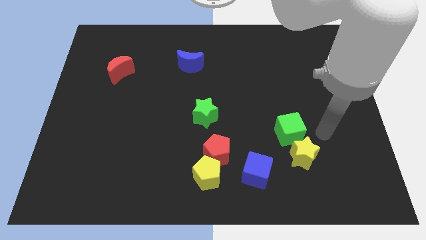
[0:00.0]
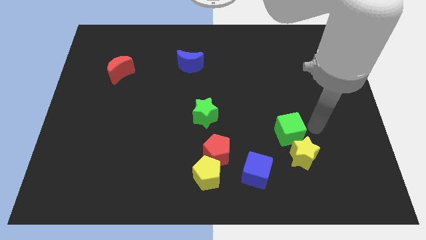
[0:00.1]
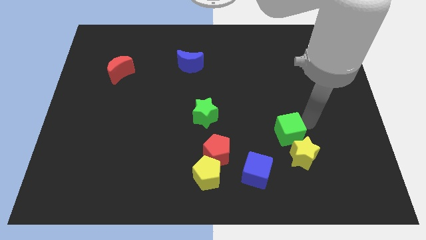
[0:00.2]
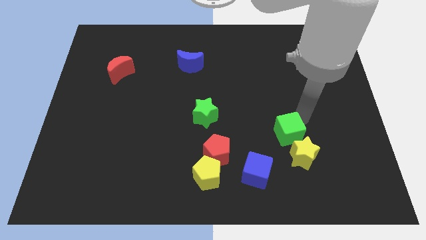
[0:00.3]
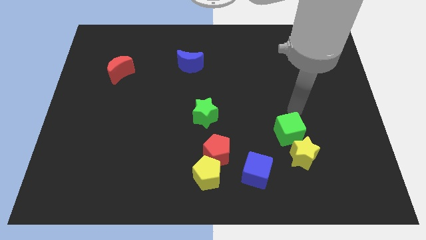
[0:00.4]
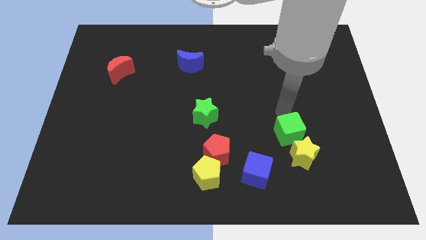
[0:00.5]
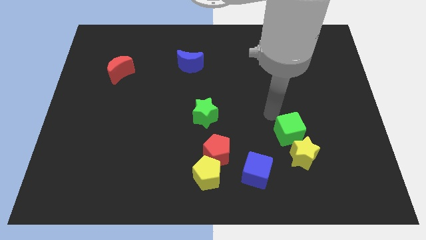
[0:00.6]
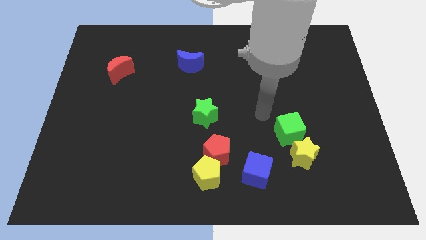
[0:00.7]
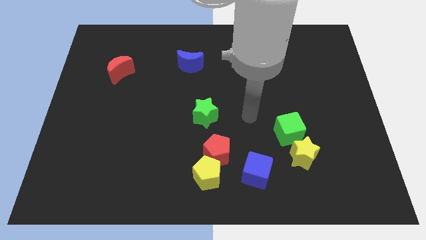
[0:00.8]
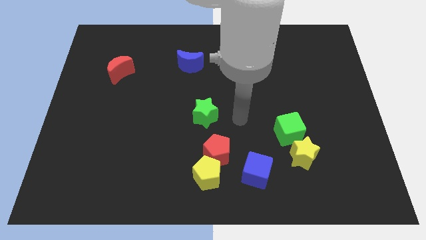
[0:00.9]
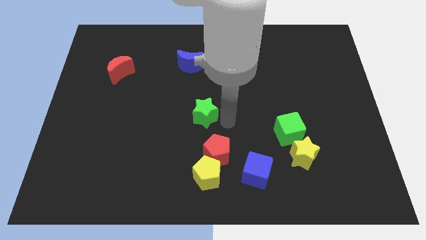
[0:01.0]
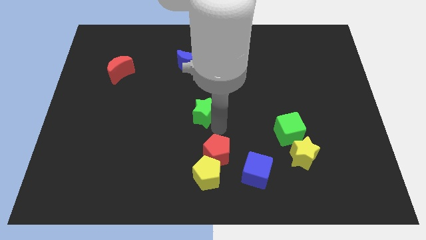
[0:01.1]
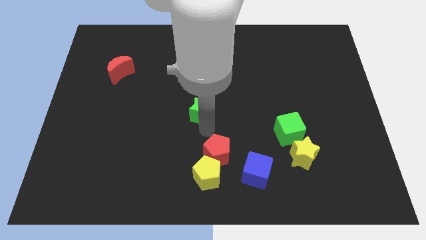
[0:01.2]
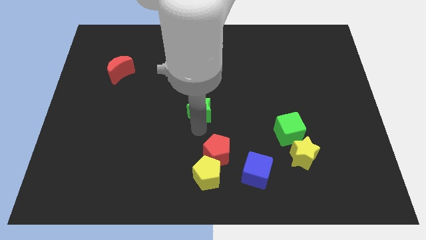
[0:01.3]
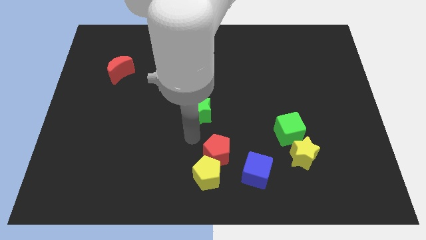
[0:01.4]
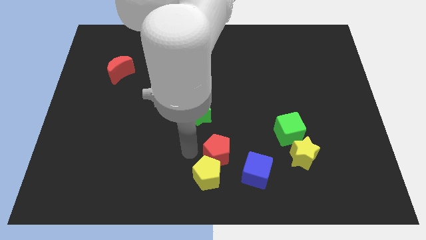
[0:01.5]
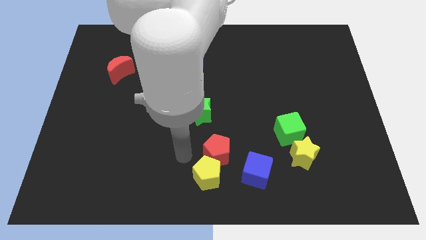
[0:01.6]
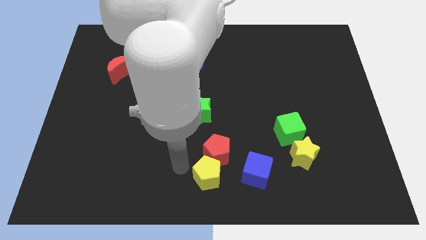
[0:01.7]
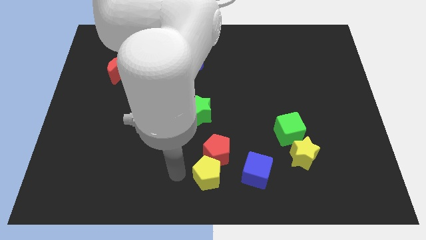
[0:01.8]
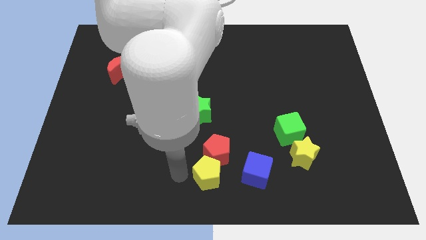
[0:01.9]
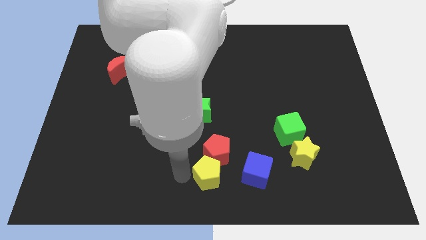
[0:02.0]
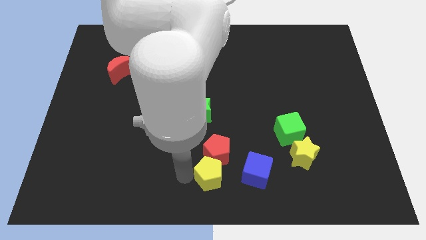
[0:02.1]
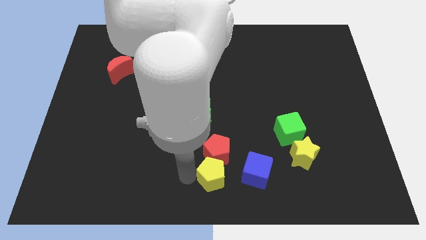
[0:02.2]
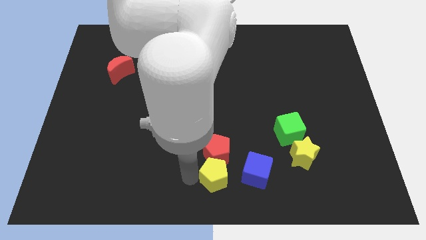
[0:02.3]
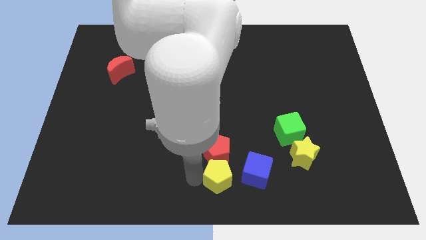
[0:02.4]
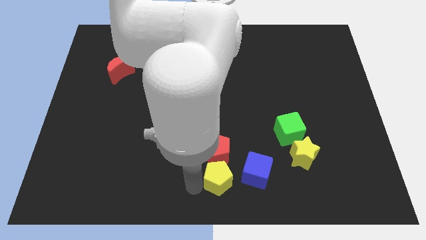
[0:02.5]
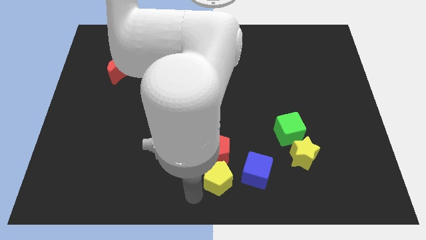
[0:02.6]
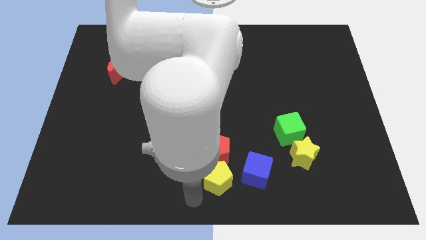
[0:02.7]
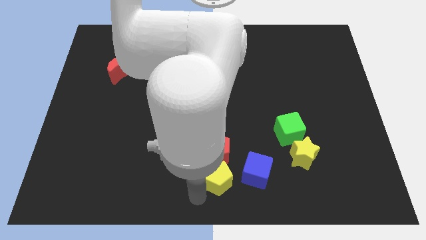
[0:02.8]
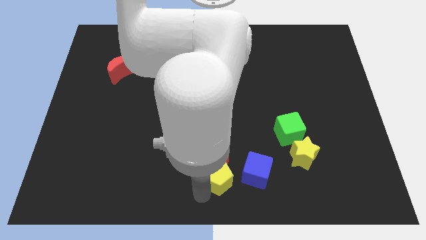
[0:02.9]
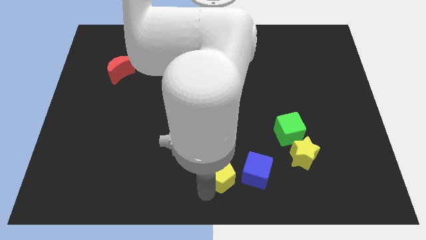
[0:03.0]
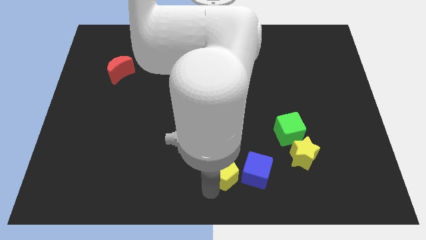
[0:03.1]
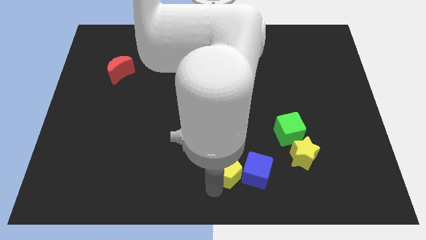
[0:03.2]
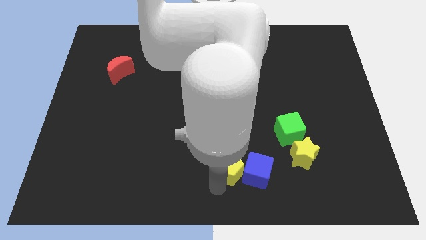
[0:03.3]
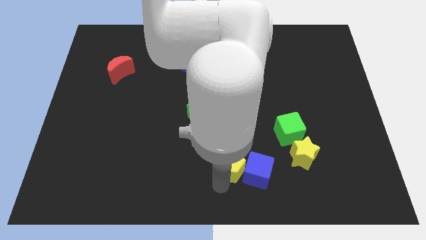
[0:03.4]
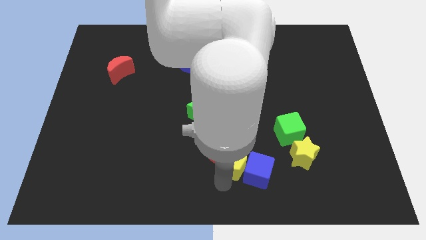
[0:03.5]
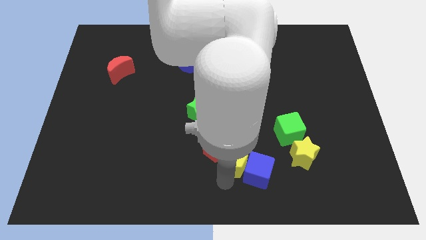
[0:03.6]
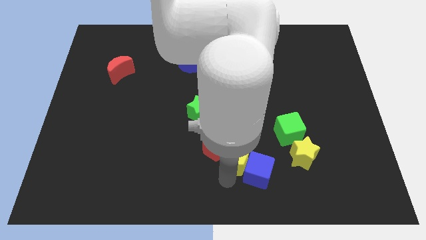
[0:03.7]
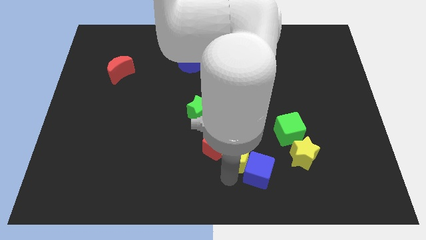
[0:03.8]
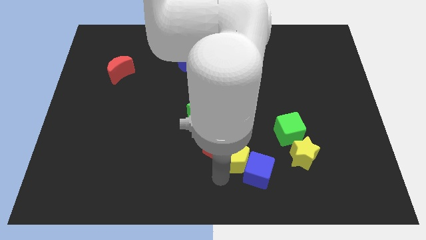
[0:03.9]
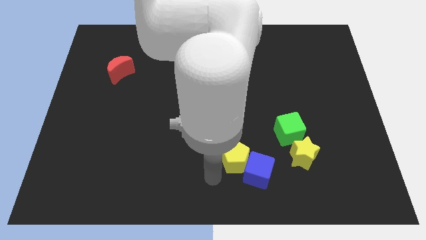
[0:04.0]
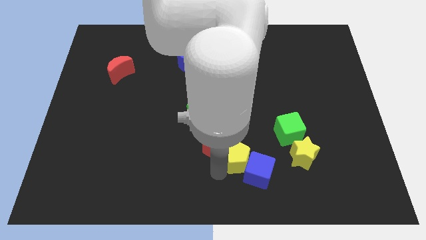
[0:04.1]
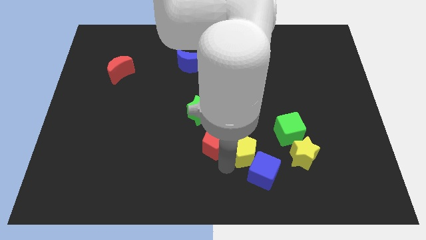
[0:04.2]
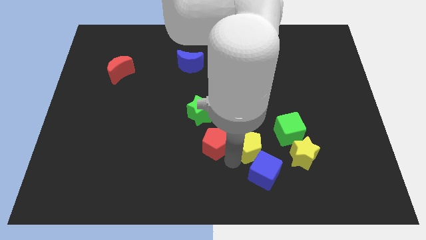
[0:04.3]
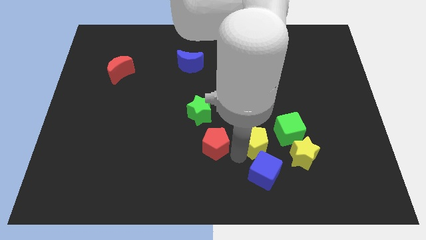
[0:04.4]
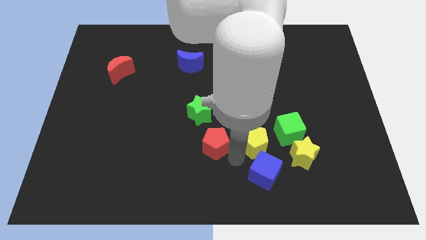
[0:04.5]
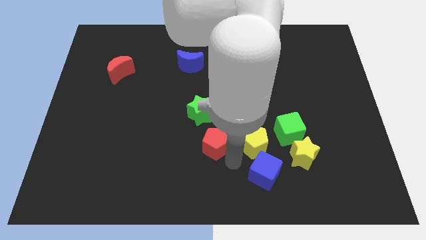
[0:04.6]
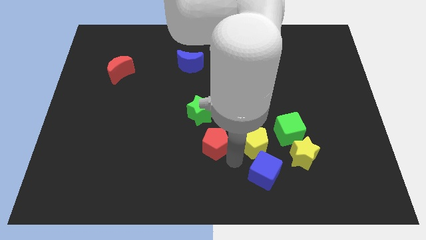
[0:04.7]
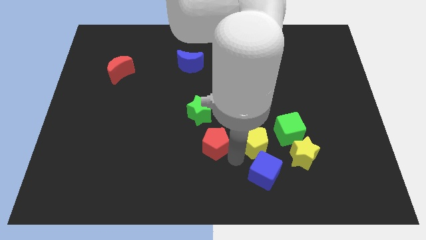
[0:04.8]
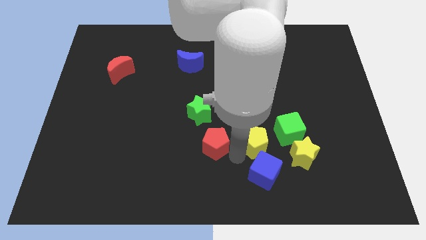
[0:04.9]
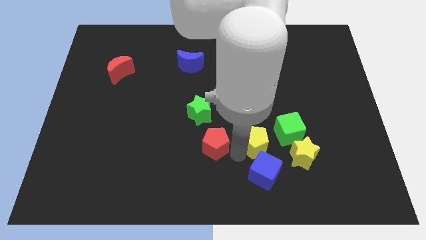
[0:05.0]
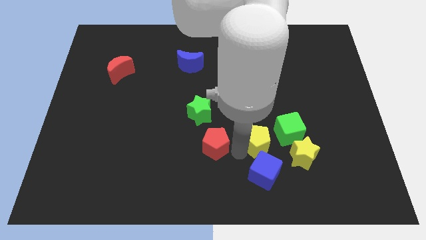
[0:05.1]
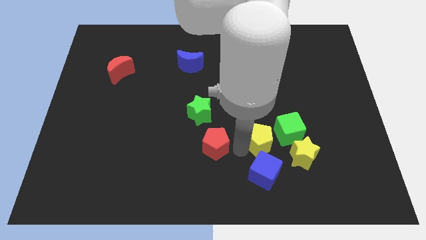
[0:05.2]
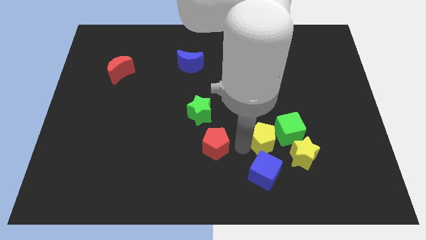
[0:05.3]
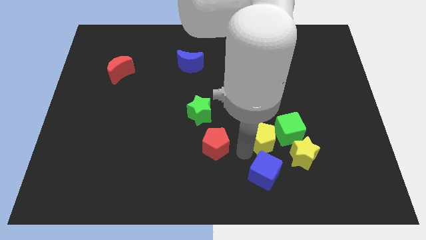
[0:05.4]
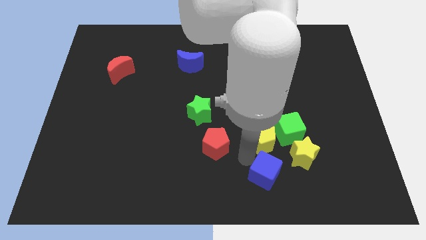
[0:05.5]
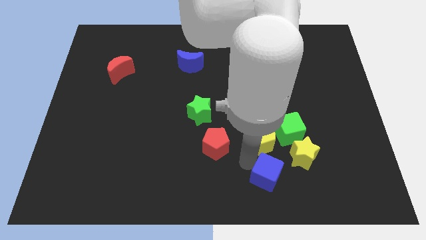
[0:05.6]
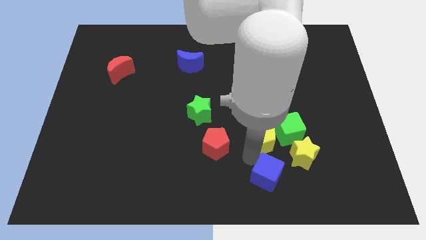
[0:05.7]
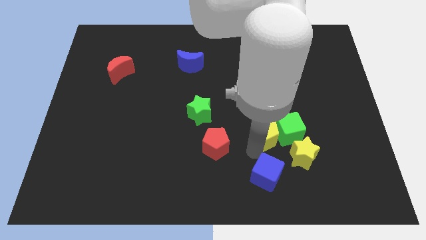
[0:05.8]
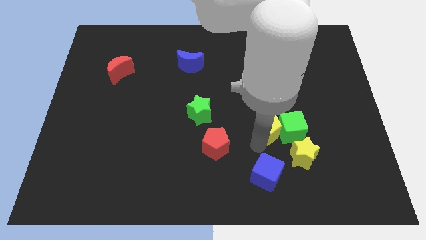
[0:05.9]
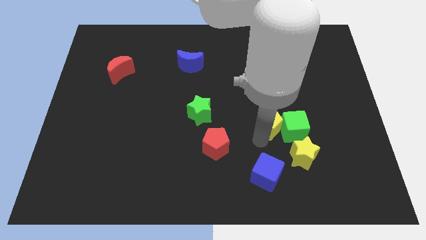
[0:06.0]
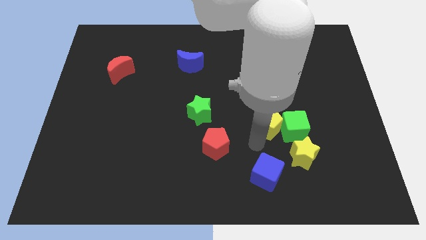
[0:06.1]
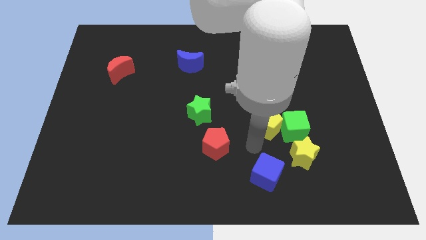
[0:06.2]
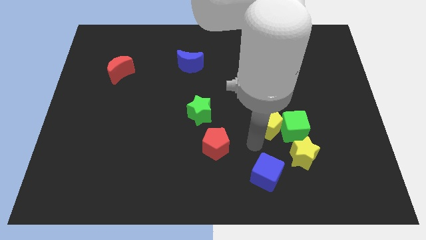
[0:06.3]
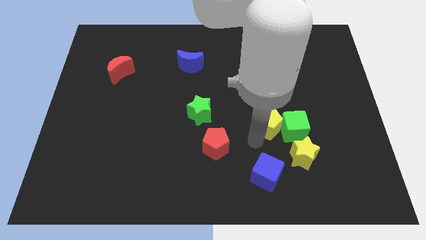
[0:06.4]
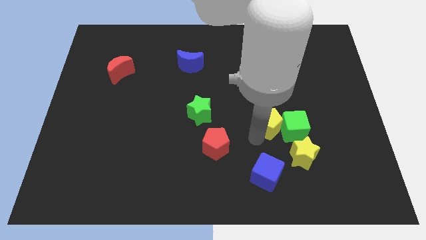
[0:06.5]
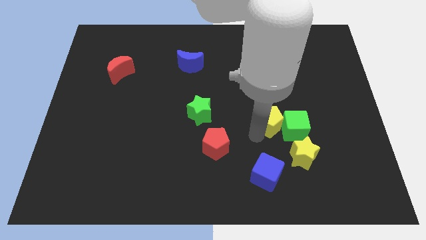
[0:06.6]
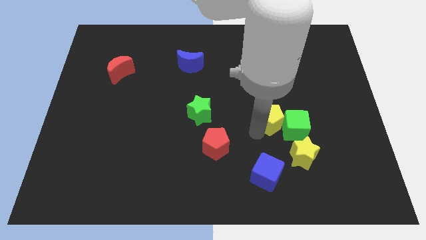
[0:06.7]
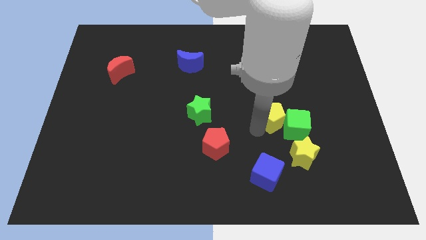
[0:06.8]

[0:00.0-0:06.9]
slide the yellow pentagon upwards and right

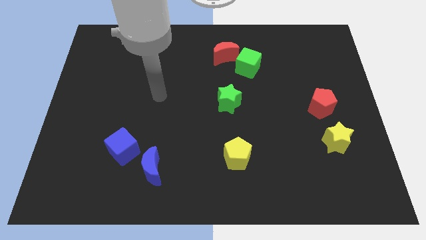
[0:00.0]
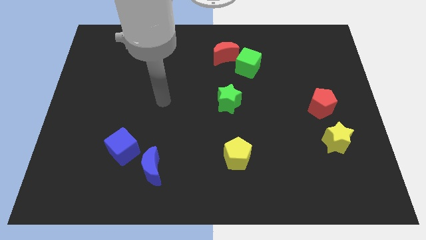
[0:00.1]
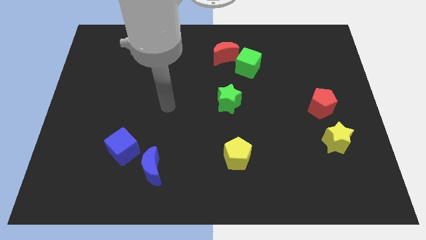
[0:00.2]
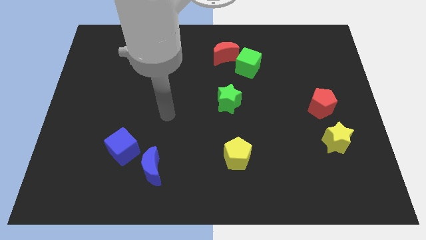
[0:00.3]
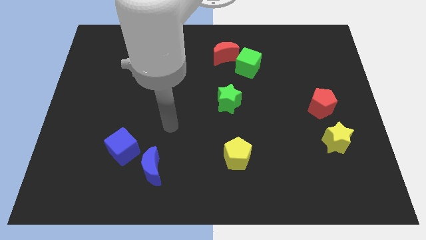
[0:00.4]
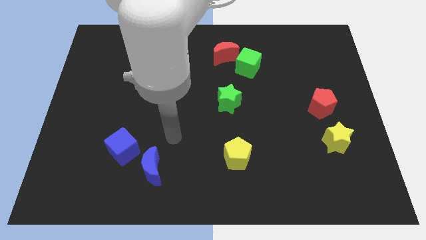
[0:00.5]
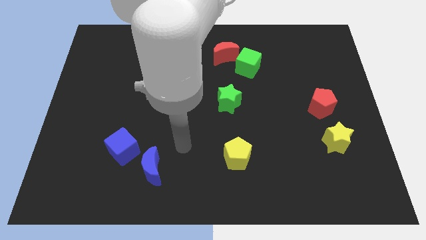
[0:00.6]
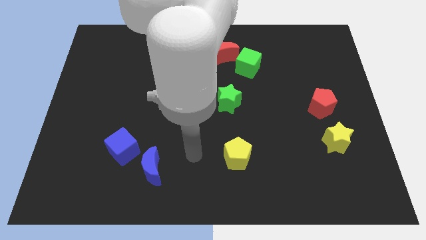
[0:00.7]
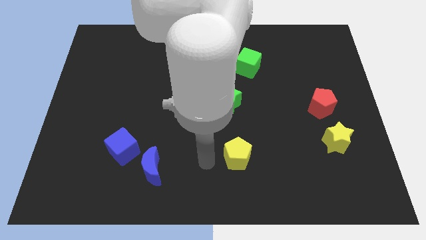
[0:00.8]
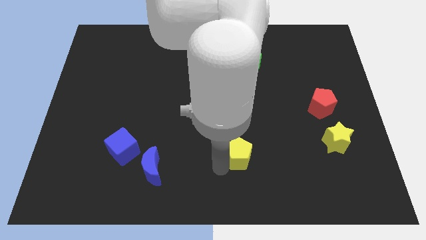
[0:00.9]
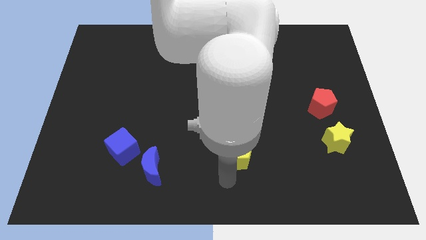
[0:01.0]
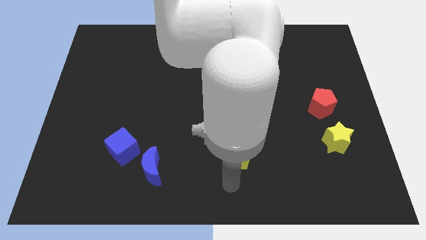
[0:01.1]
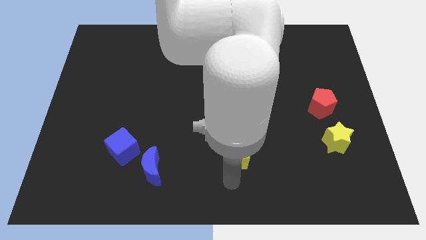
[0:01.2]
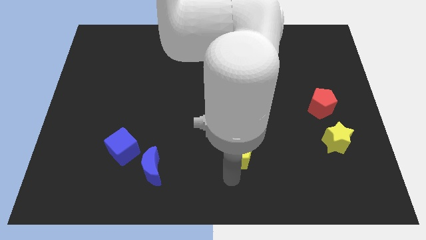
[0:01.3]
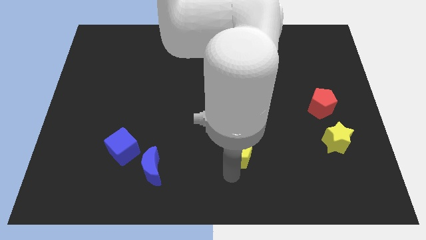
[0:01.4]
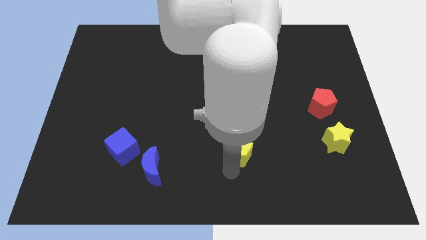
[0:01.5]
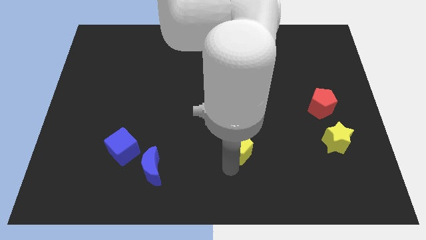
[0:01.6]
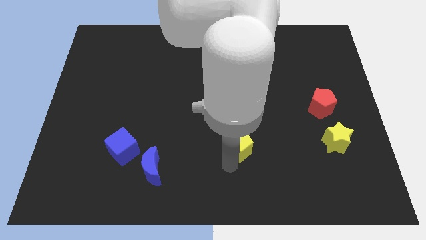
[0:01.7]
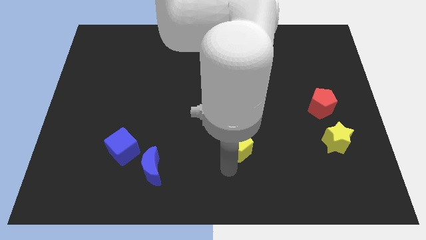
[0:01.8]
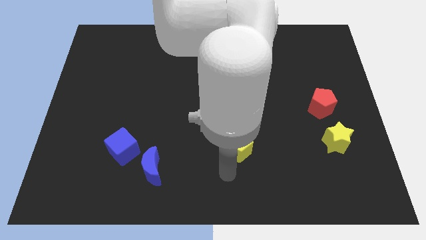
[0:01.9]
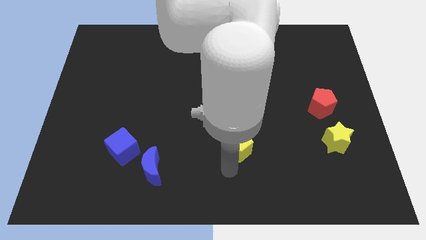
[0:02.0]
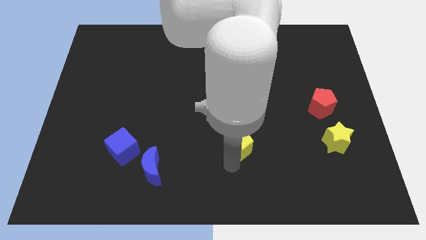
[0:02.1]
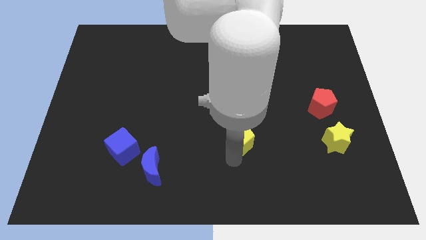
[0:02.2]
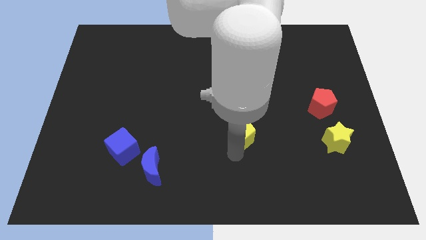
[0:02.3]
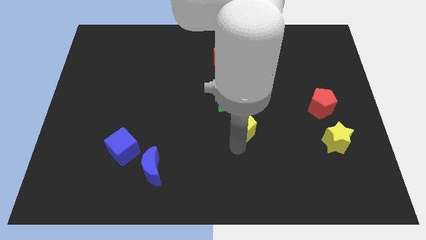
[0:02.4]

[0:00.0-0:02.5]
push the yellow pentagon slightly up
